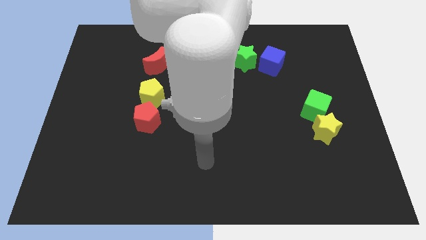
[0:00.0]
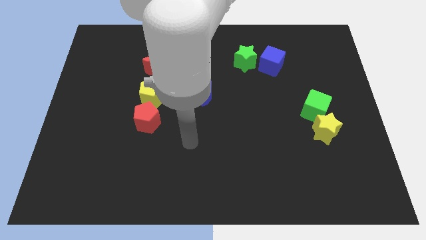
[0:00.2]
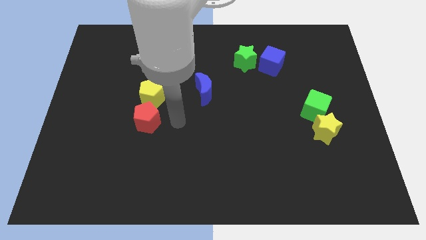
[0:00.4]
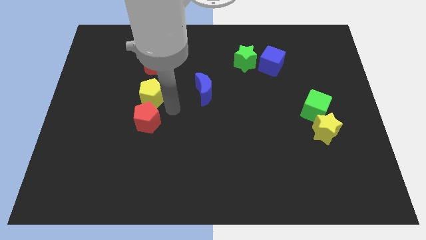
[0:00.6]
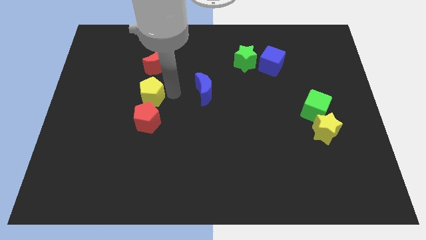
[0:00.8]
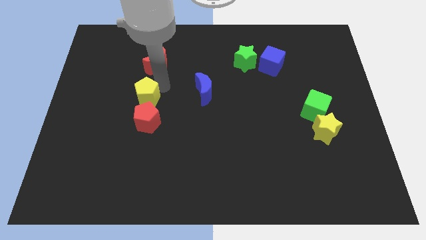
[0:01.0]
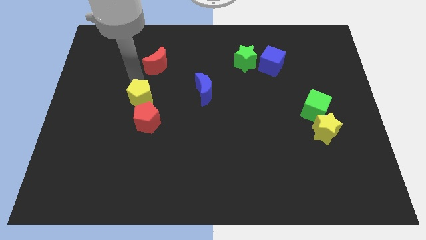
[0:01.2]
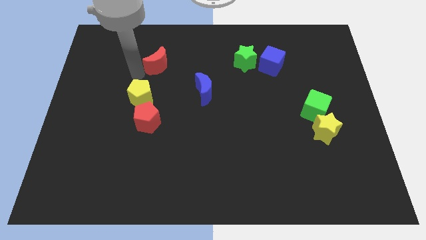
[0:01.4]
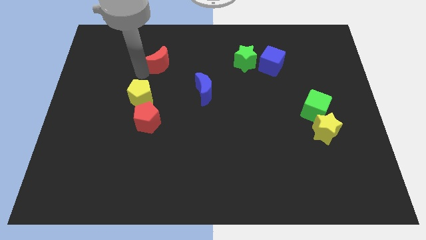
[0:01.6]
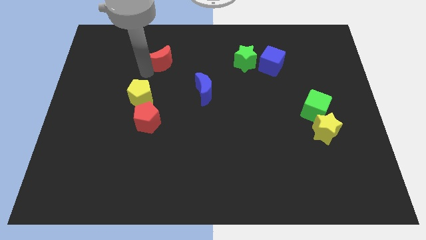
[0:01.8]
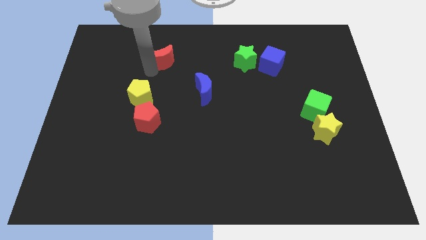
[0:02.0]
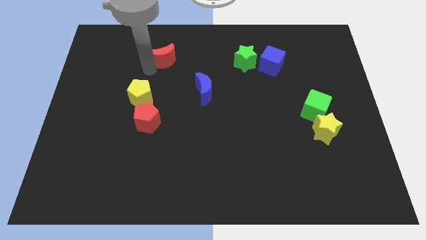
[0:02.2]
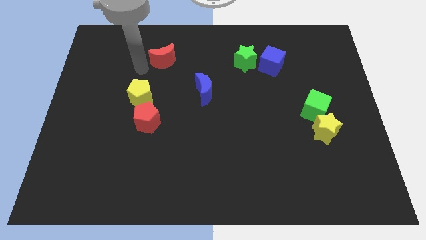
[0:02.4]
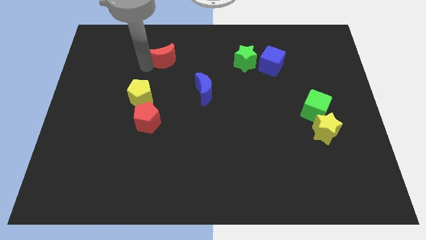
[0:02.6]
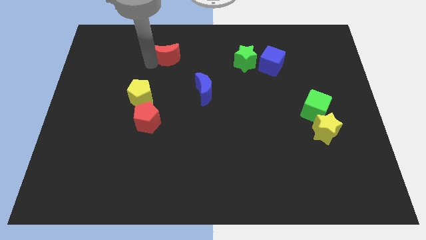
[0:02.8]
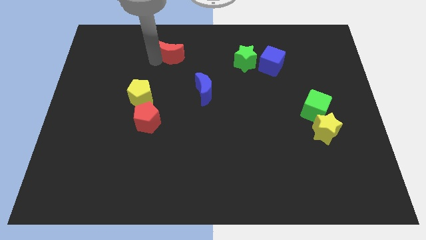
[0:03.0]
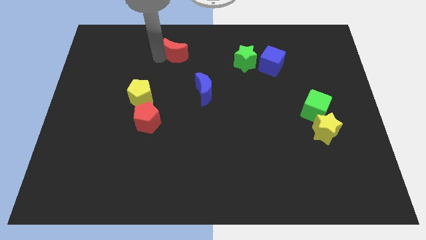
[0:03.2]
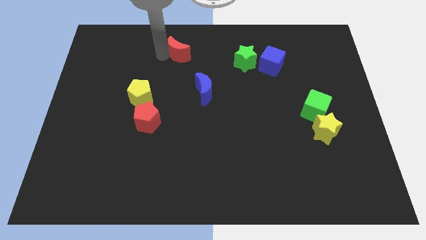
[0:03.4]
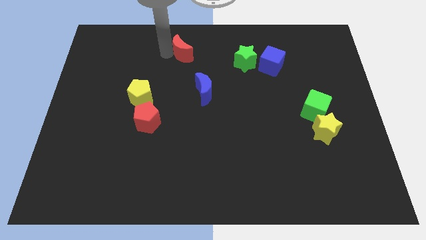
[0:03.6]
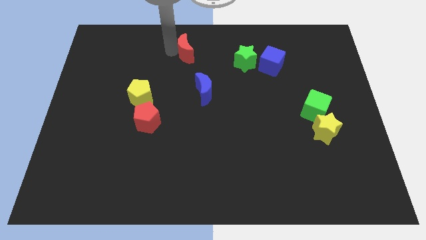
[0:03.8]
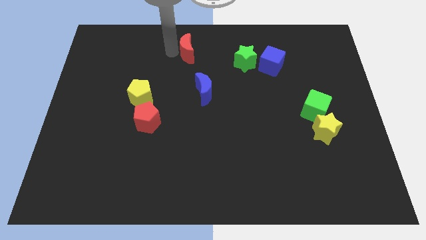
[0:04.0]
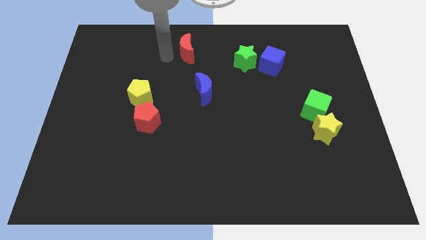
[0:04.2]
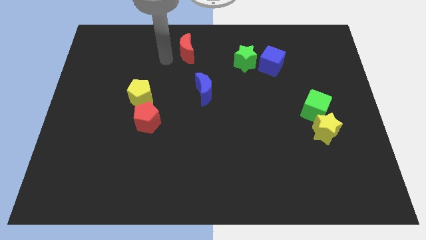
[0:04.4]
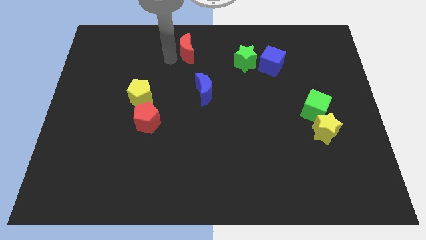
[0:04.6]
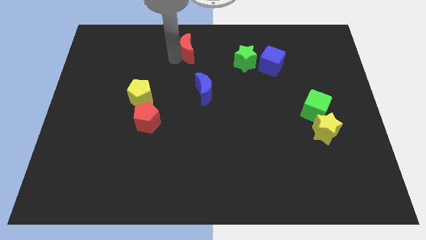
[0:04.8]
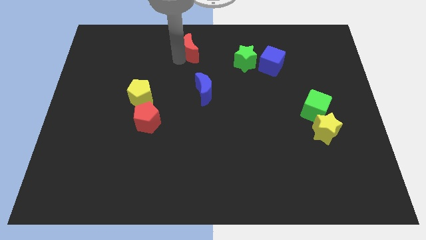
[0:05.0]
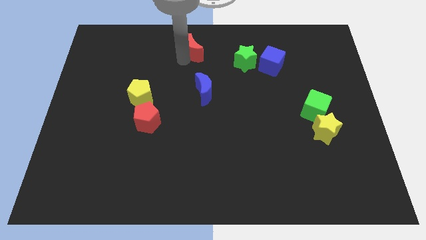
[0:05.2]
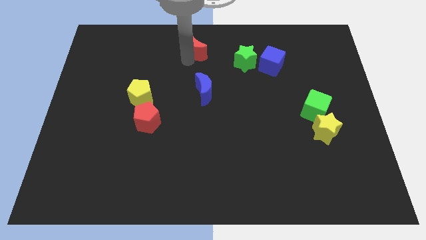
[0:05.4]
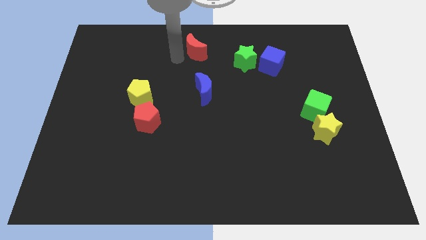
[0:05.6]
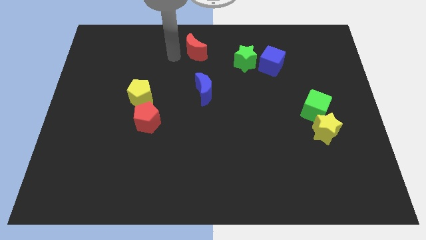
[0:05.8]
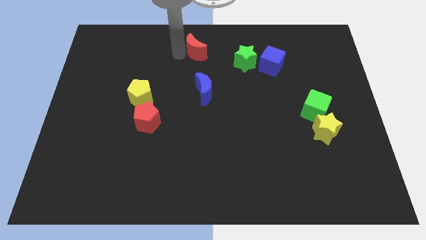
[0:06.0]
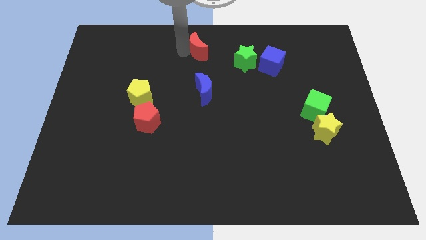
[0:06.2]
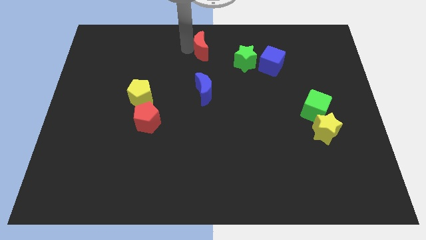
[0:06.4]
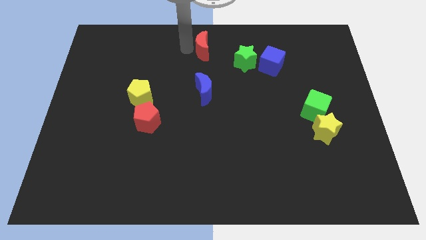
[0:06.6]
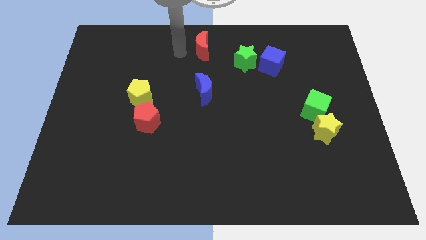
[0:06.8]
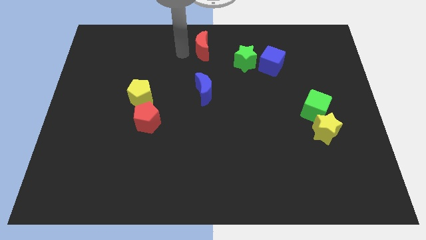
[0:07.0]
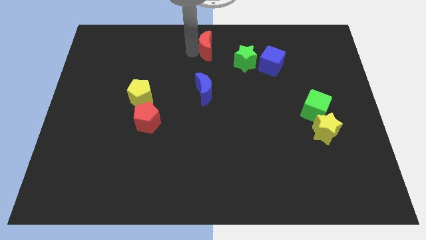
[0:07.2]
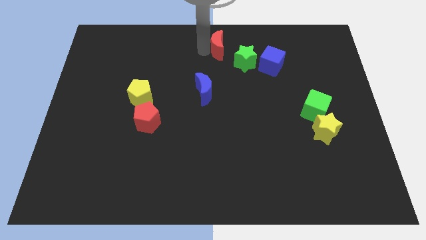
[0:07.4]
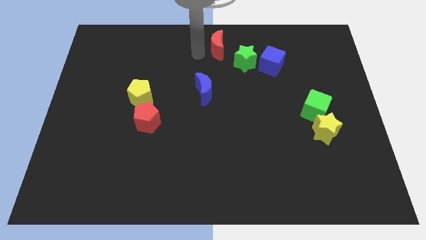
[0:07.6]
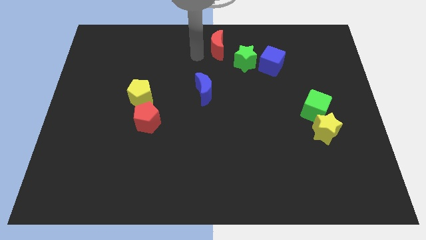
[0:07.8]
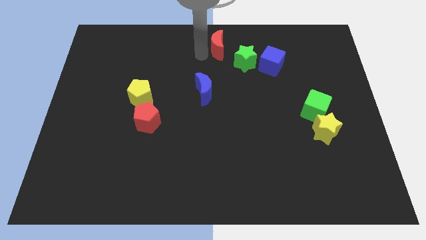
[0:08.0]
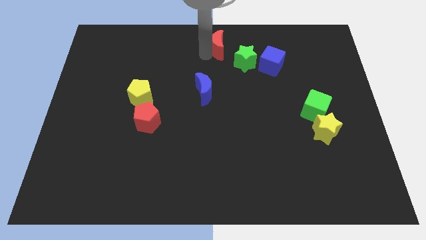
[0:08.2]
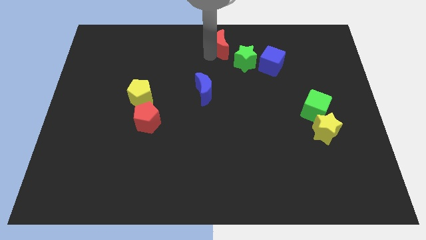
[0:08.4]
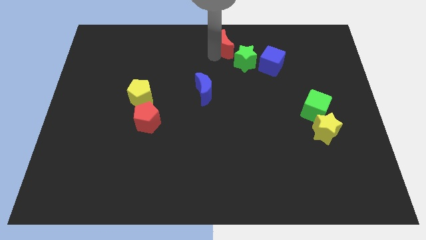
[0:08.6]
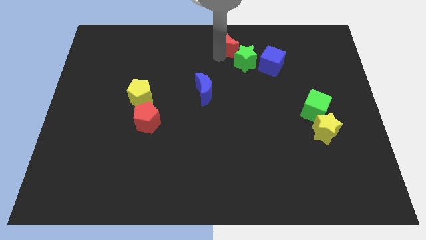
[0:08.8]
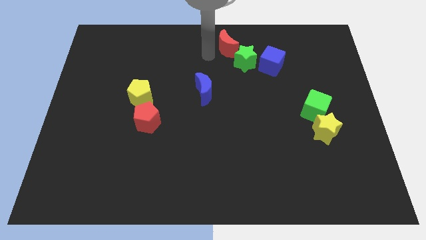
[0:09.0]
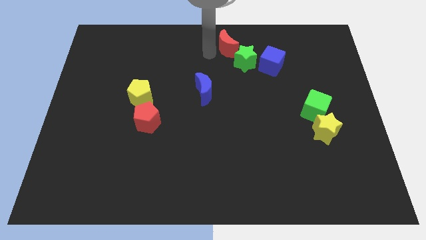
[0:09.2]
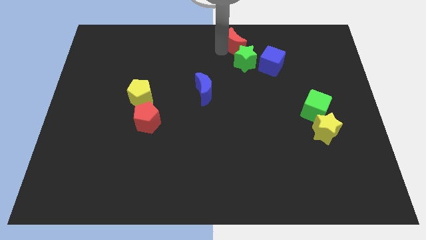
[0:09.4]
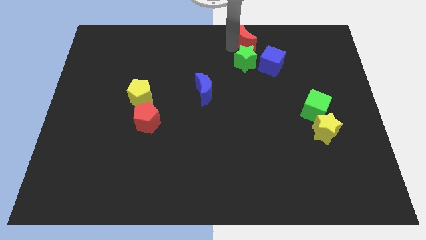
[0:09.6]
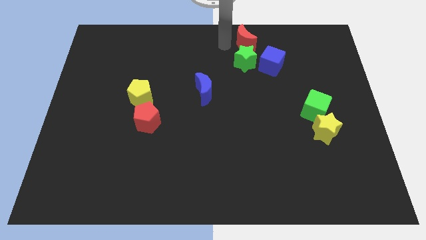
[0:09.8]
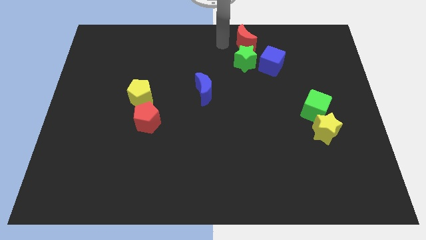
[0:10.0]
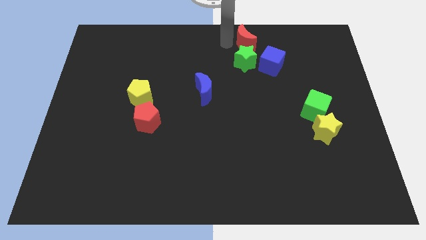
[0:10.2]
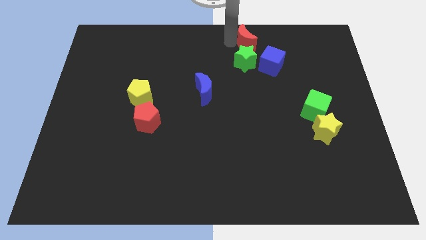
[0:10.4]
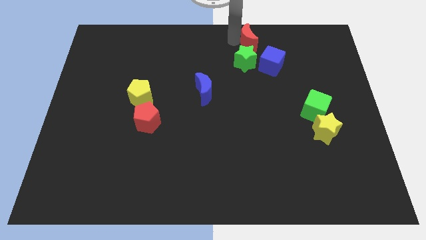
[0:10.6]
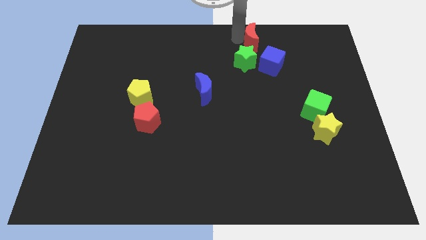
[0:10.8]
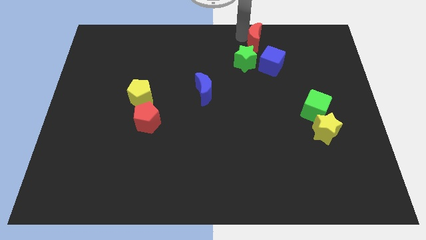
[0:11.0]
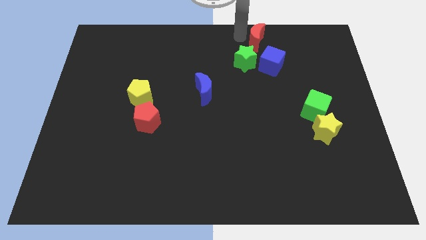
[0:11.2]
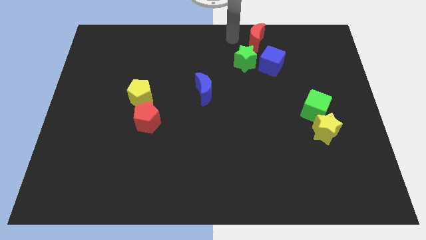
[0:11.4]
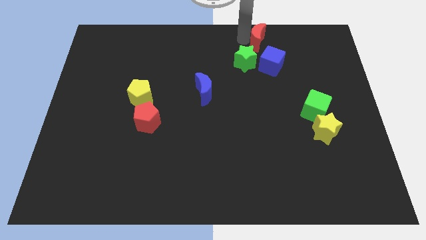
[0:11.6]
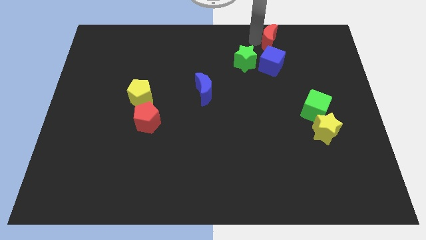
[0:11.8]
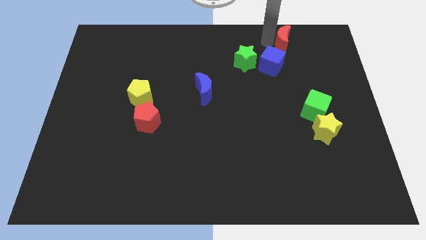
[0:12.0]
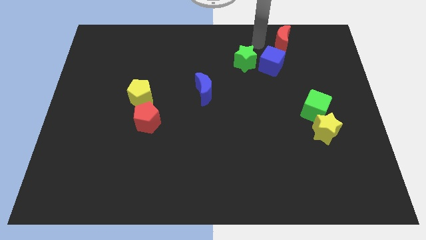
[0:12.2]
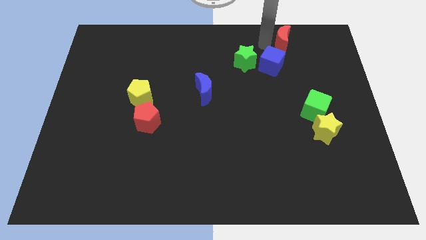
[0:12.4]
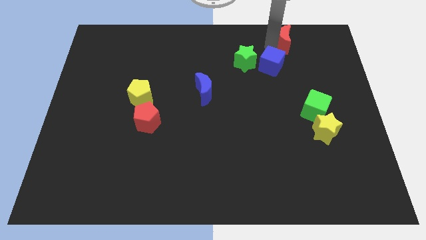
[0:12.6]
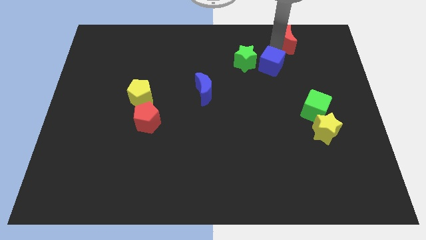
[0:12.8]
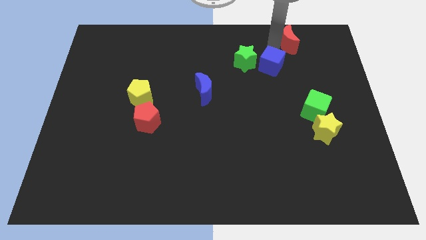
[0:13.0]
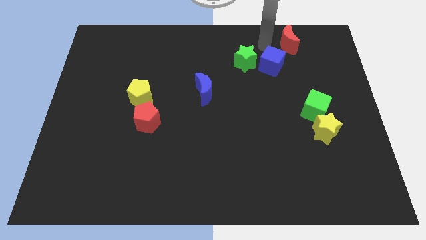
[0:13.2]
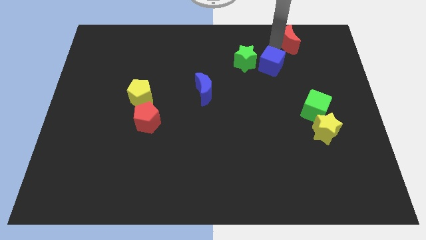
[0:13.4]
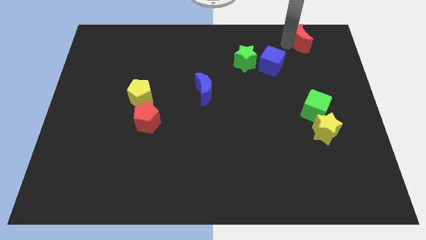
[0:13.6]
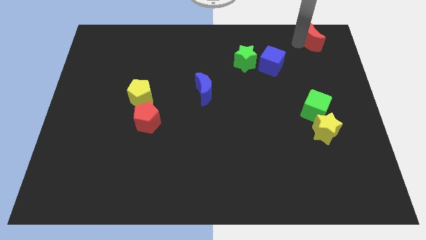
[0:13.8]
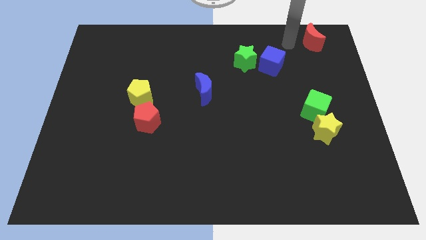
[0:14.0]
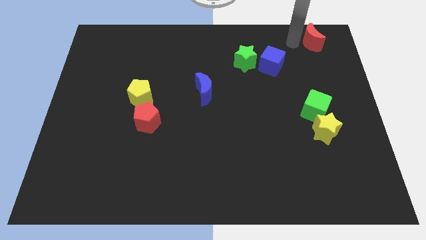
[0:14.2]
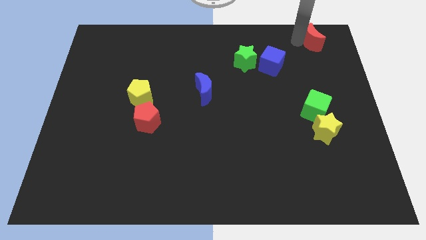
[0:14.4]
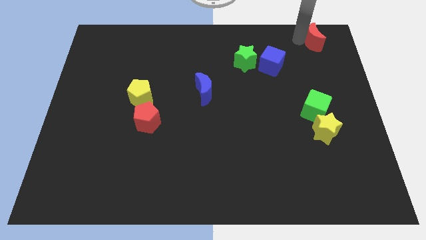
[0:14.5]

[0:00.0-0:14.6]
move the red moon to the top right of the board
